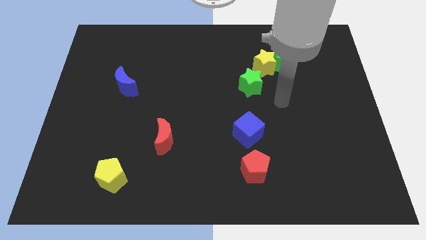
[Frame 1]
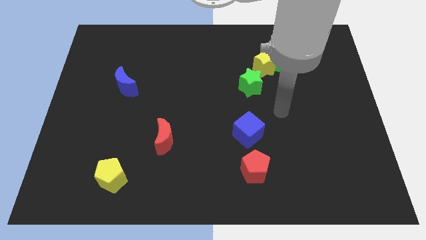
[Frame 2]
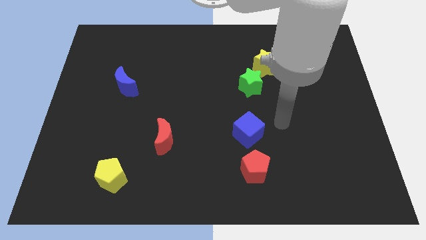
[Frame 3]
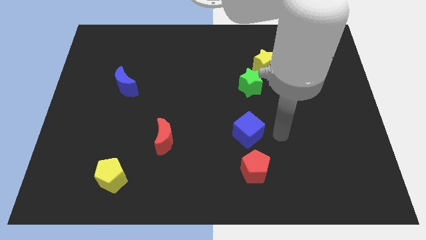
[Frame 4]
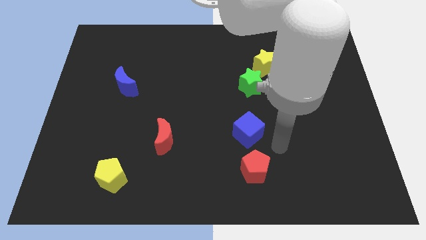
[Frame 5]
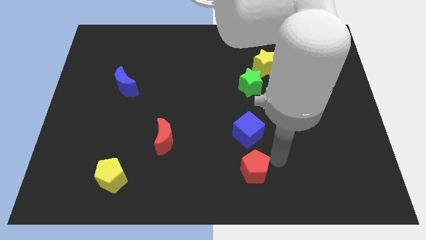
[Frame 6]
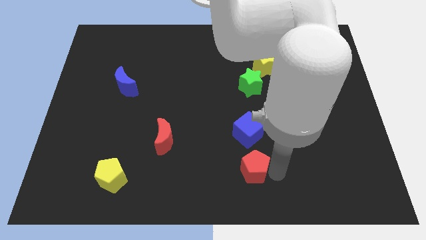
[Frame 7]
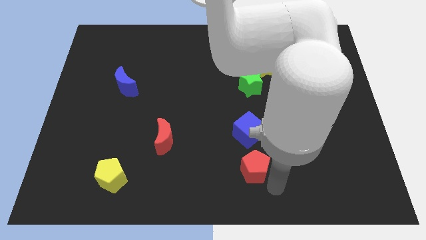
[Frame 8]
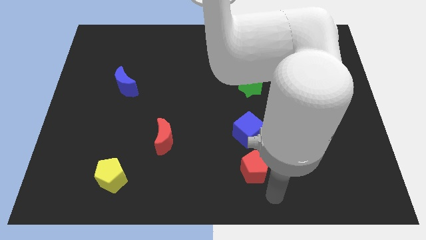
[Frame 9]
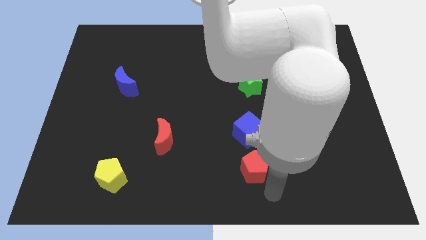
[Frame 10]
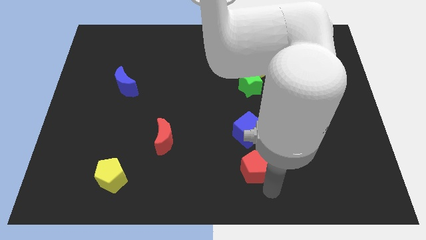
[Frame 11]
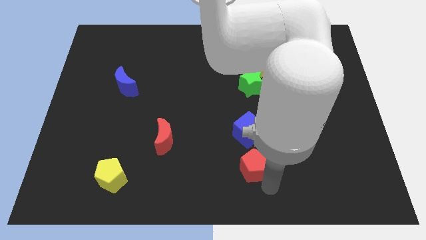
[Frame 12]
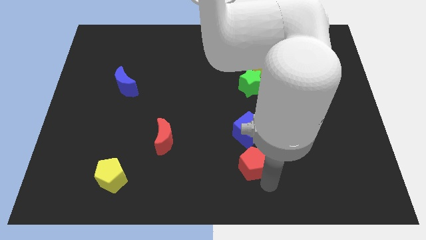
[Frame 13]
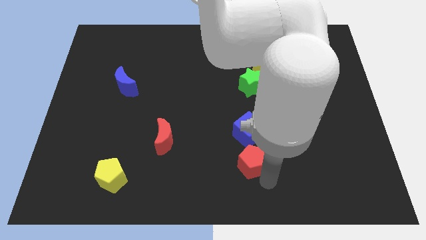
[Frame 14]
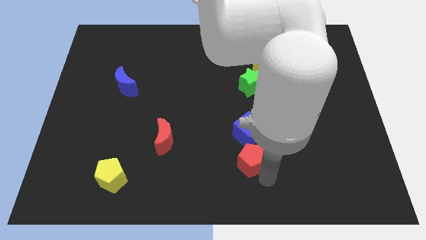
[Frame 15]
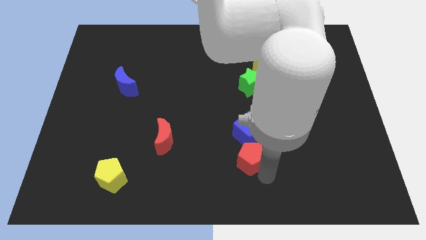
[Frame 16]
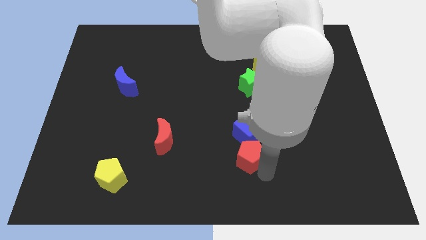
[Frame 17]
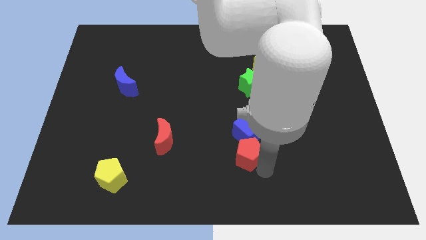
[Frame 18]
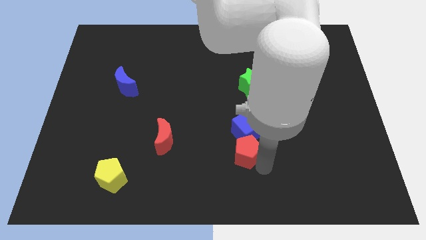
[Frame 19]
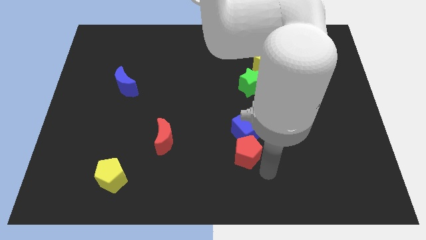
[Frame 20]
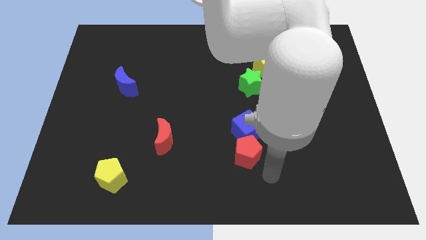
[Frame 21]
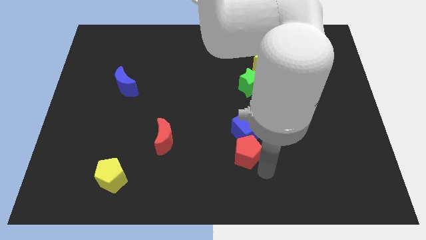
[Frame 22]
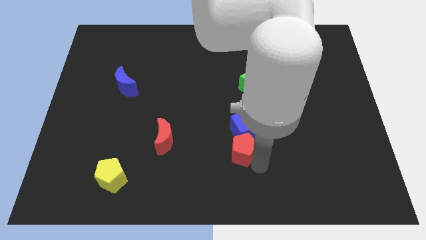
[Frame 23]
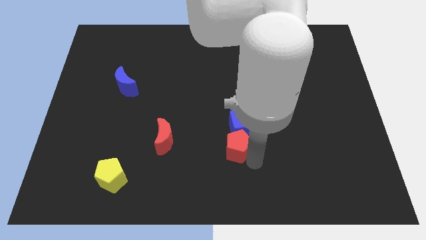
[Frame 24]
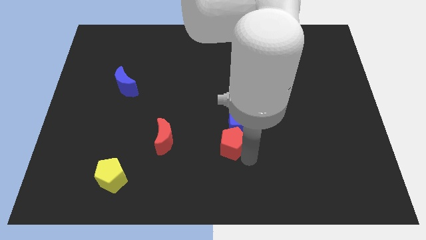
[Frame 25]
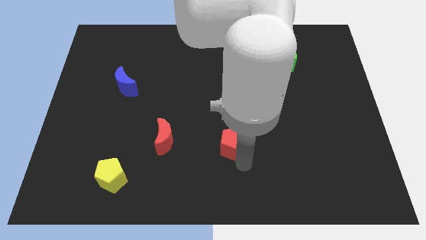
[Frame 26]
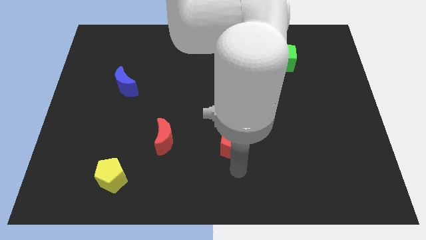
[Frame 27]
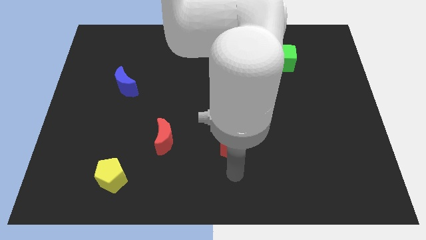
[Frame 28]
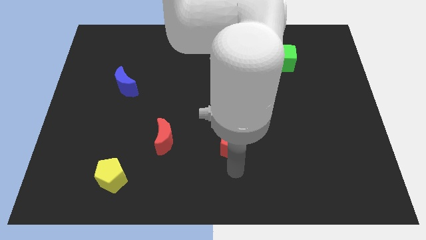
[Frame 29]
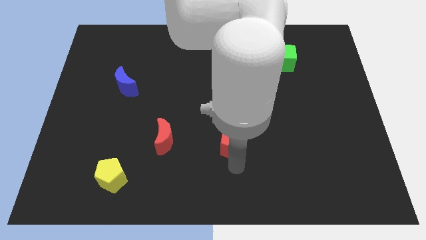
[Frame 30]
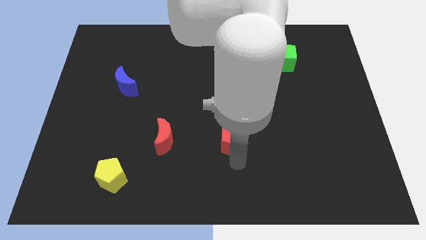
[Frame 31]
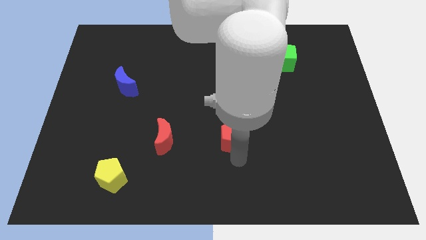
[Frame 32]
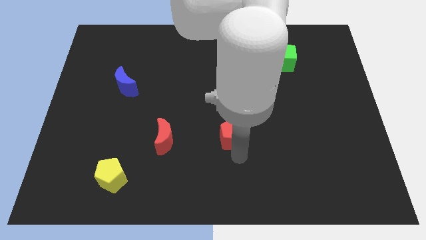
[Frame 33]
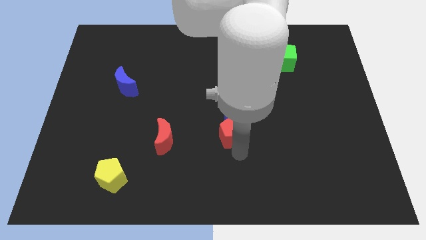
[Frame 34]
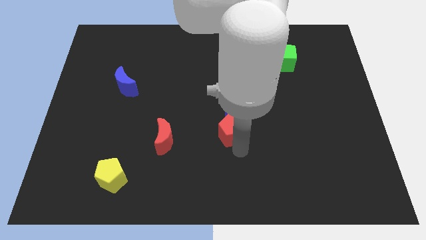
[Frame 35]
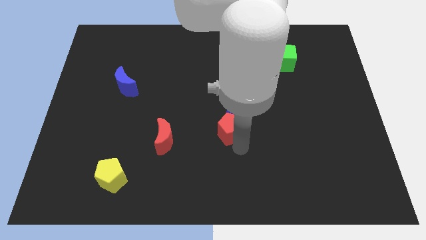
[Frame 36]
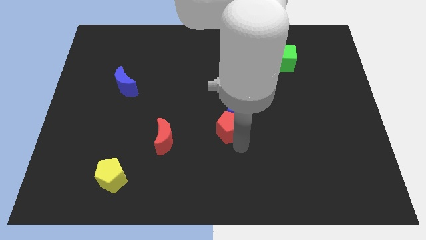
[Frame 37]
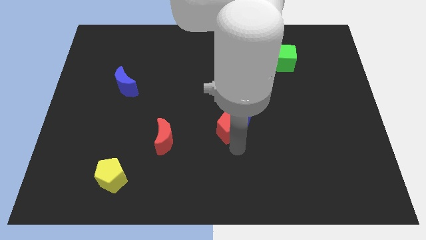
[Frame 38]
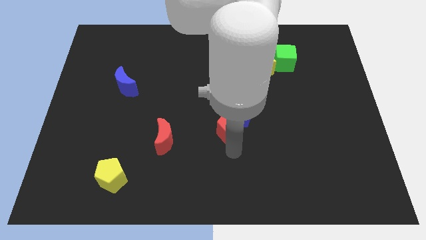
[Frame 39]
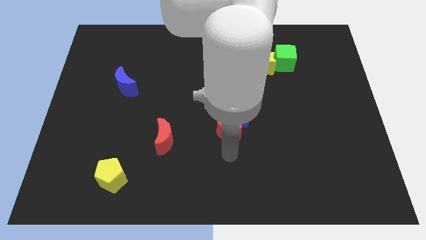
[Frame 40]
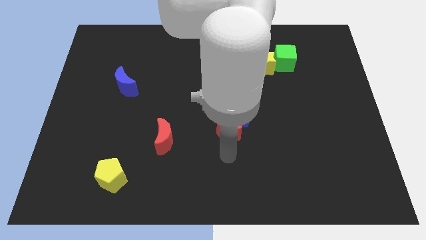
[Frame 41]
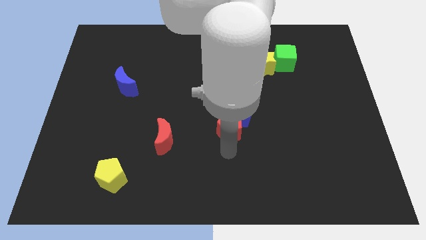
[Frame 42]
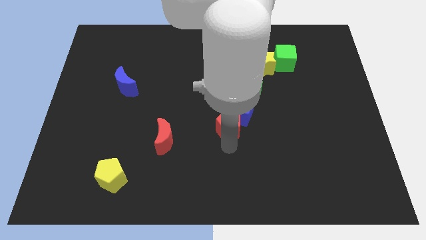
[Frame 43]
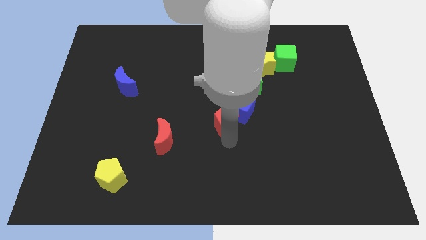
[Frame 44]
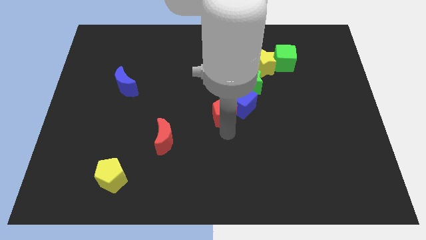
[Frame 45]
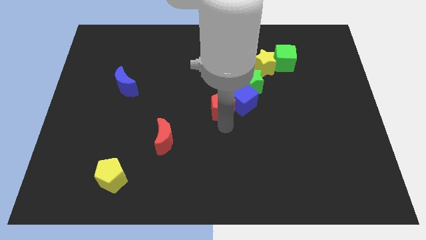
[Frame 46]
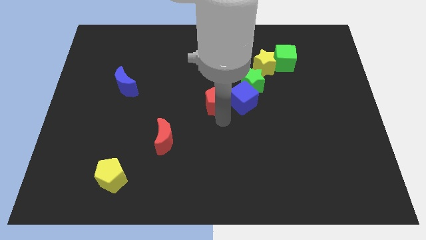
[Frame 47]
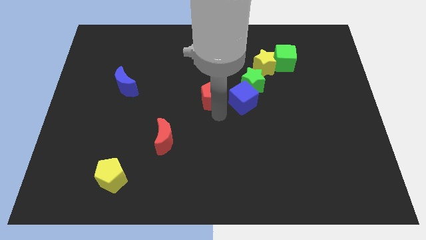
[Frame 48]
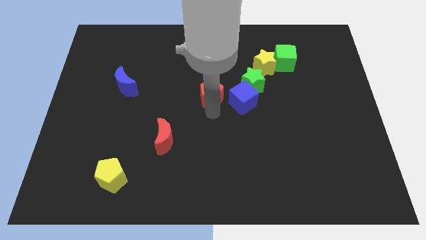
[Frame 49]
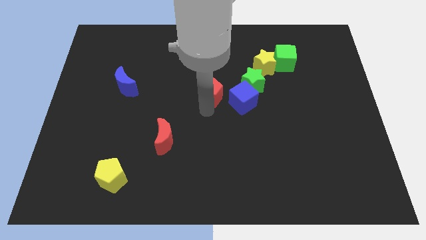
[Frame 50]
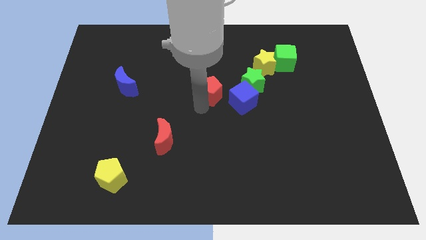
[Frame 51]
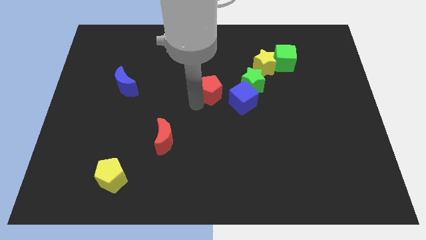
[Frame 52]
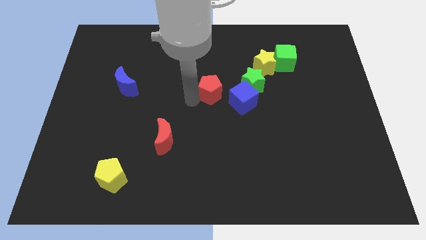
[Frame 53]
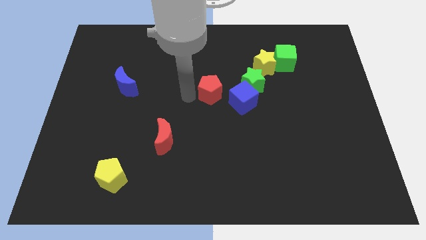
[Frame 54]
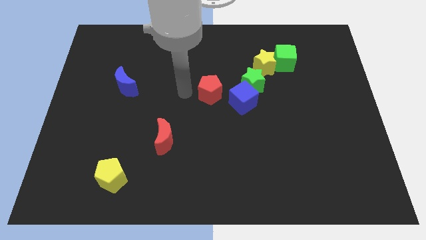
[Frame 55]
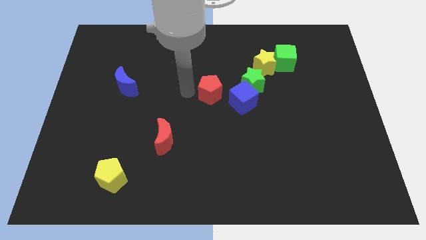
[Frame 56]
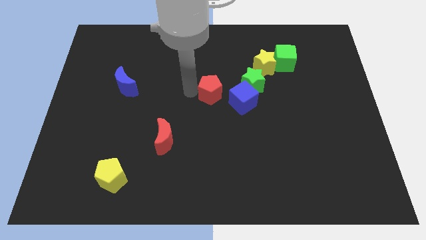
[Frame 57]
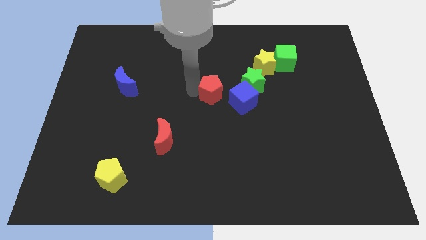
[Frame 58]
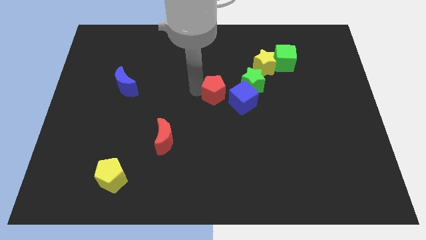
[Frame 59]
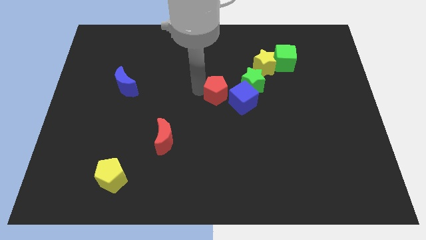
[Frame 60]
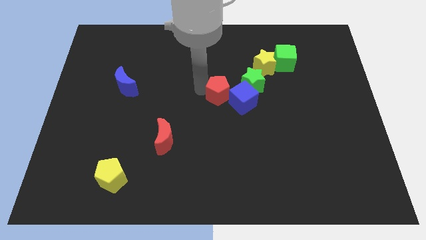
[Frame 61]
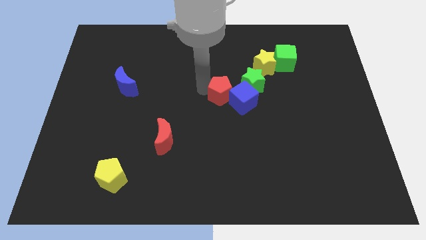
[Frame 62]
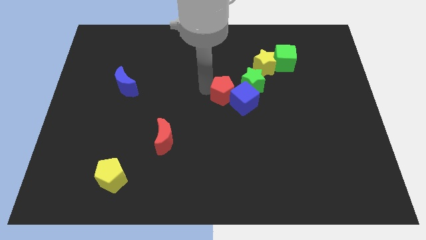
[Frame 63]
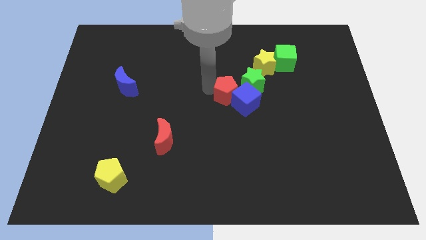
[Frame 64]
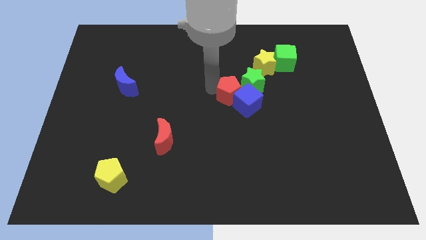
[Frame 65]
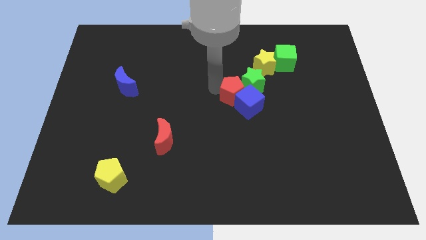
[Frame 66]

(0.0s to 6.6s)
slide the red pentagon to the bottom left of the yellow star

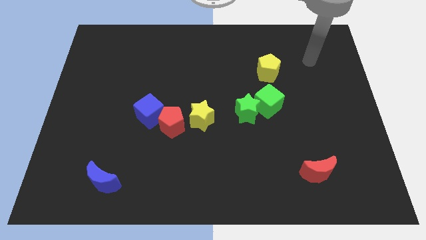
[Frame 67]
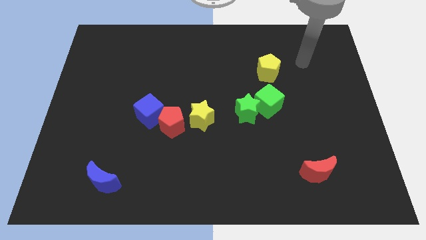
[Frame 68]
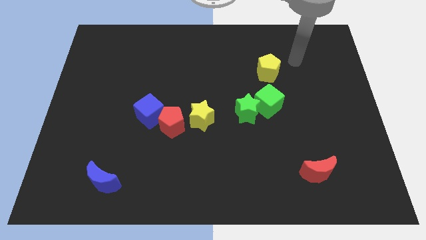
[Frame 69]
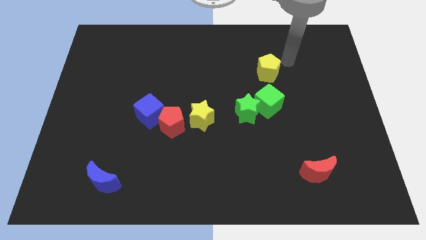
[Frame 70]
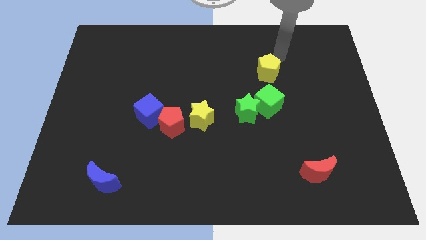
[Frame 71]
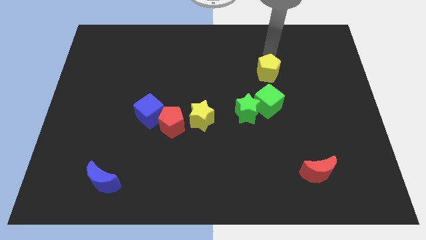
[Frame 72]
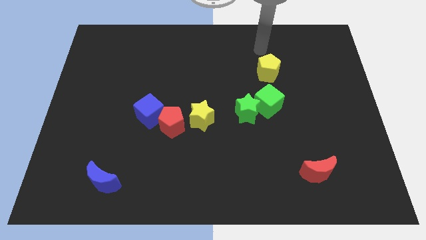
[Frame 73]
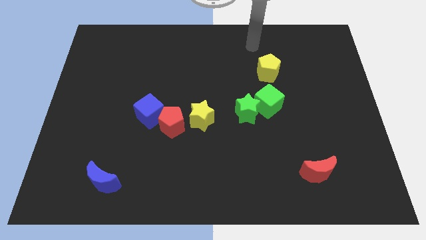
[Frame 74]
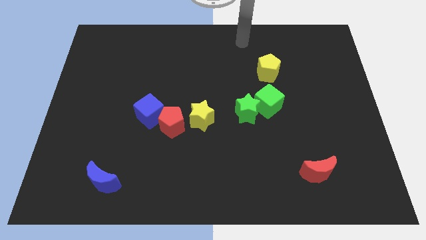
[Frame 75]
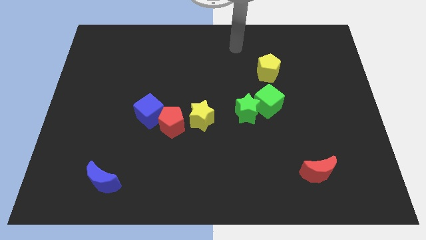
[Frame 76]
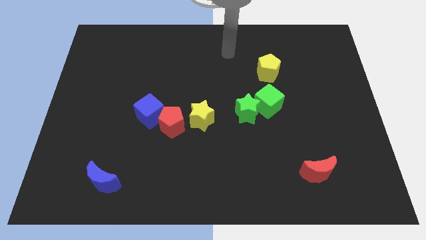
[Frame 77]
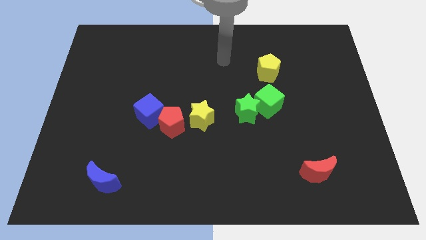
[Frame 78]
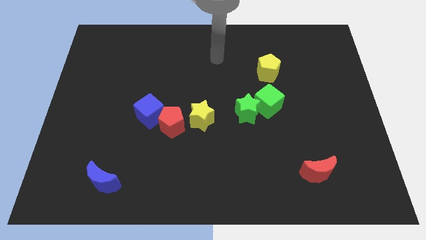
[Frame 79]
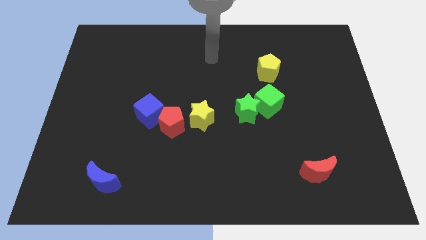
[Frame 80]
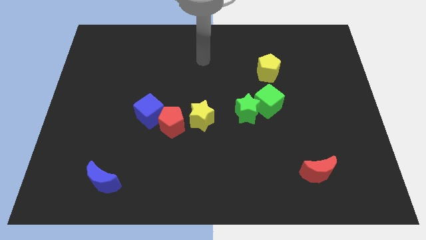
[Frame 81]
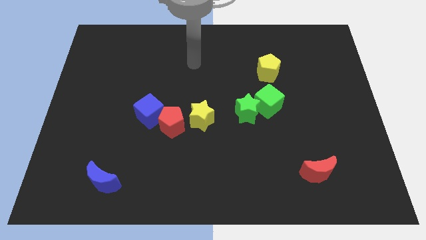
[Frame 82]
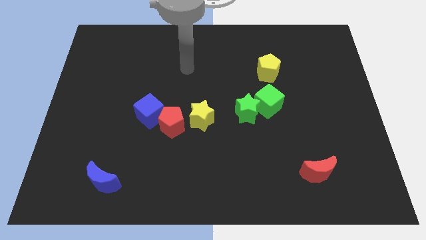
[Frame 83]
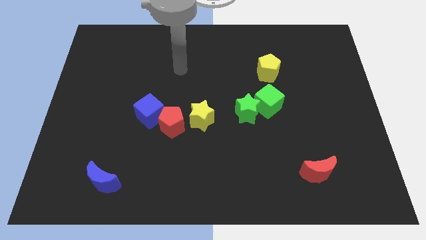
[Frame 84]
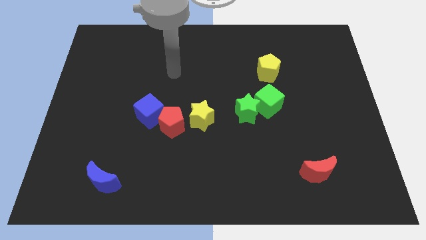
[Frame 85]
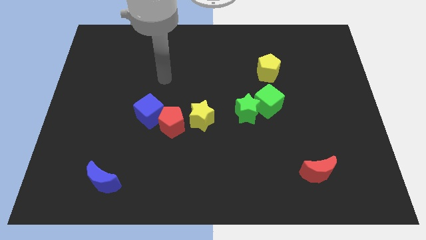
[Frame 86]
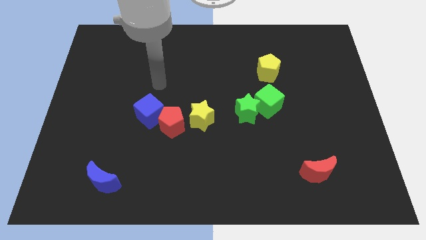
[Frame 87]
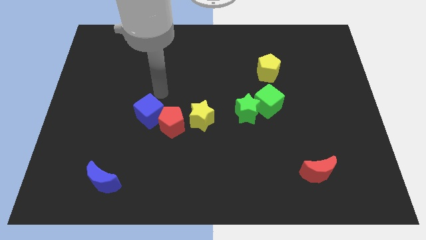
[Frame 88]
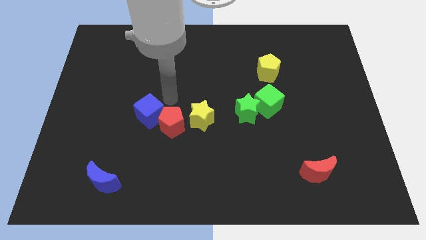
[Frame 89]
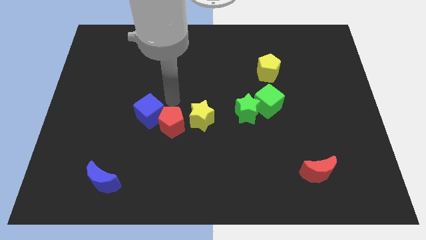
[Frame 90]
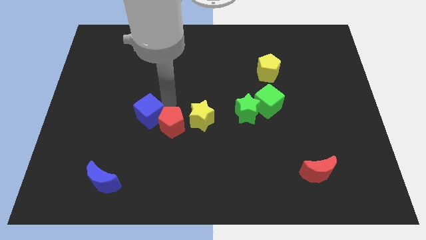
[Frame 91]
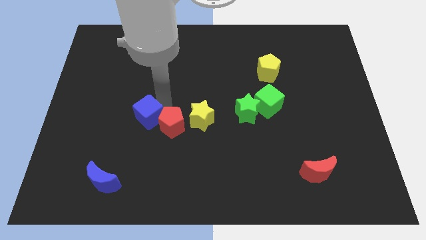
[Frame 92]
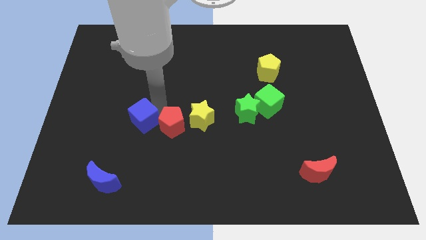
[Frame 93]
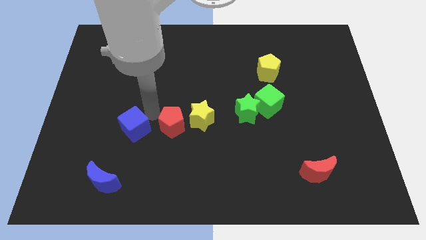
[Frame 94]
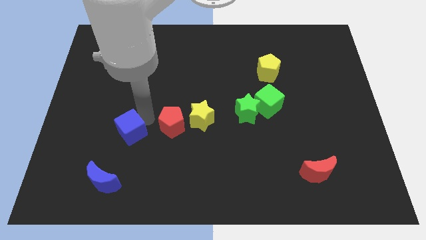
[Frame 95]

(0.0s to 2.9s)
push the blue cube above the blue moon
